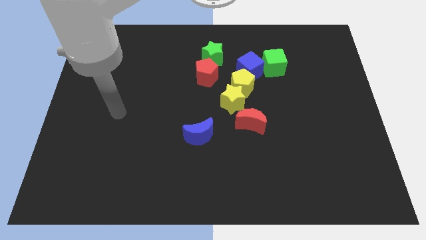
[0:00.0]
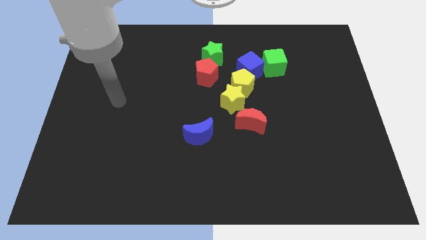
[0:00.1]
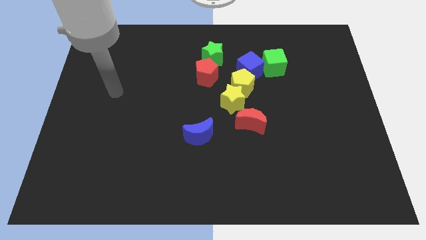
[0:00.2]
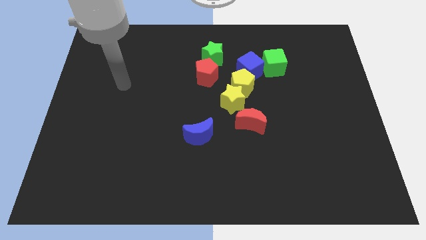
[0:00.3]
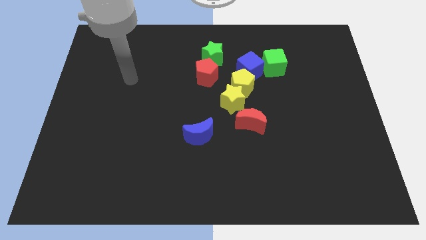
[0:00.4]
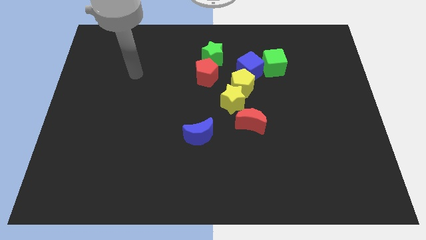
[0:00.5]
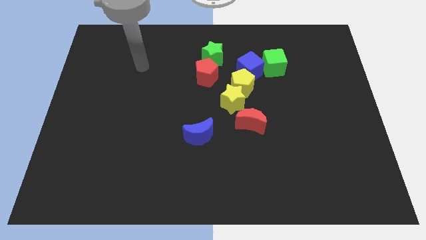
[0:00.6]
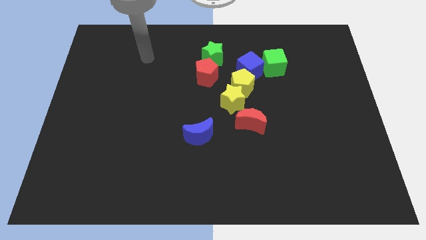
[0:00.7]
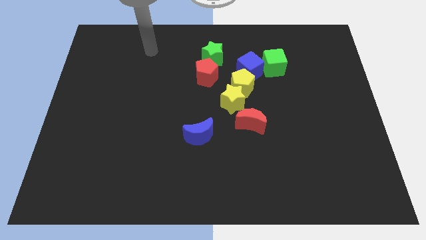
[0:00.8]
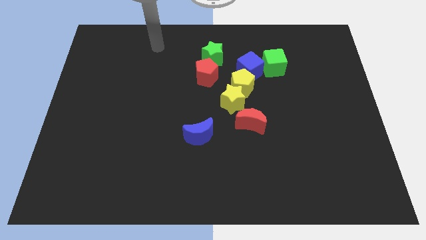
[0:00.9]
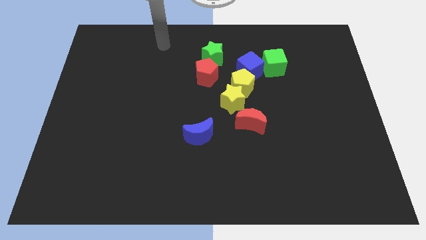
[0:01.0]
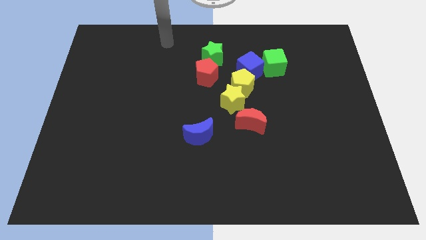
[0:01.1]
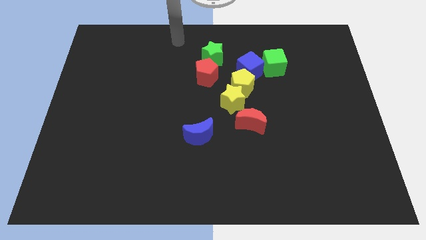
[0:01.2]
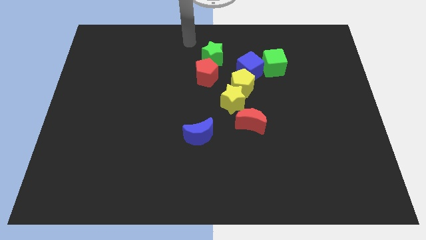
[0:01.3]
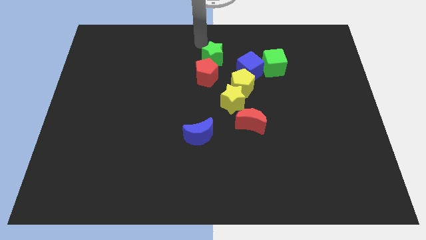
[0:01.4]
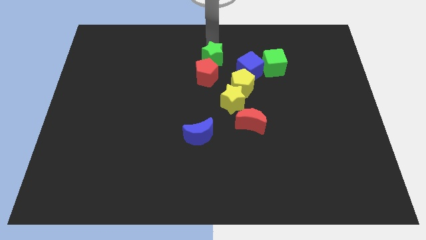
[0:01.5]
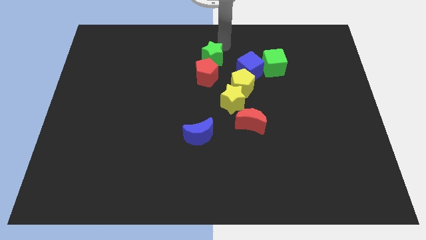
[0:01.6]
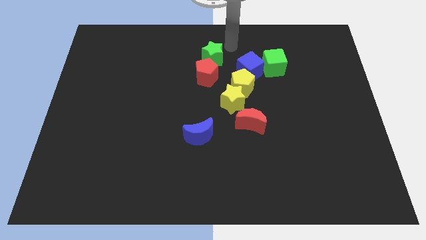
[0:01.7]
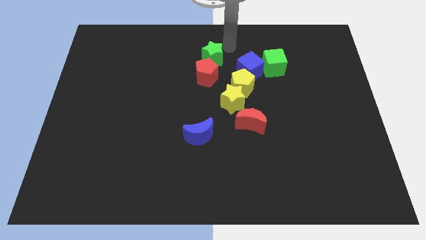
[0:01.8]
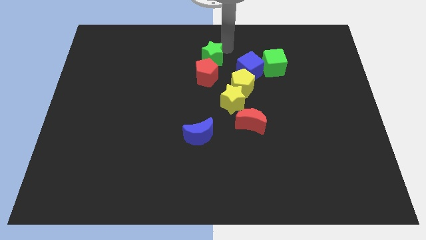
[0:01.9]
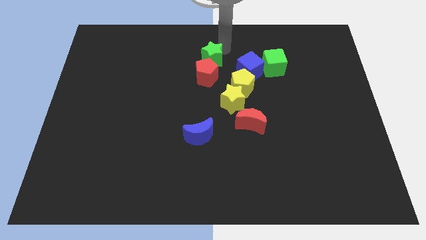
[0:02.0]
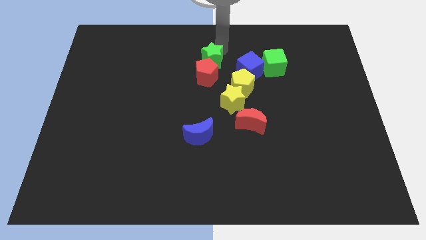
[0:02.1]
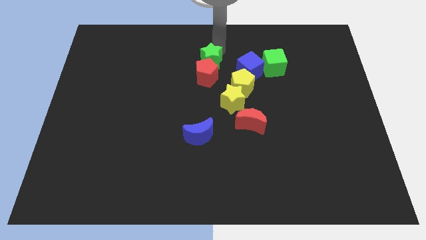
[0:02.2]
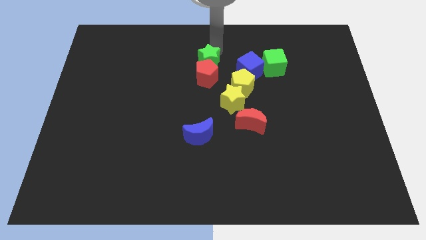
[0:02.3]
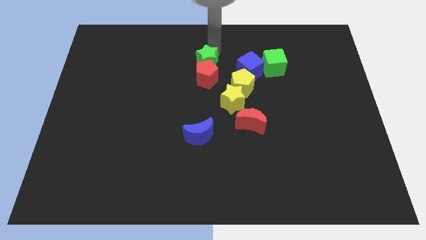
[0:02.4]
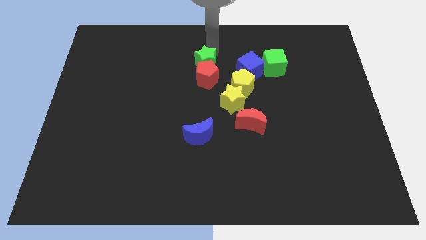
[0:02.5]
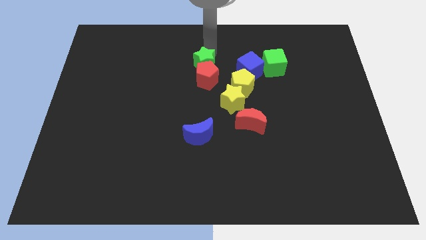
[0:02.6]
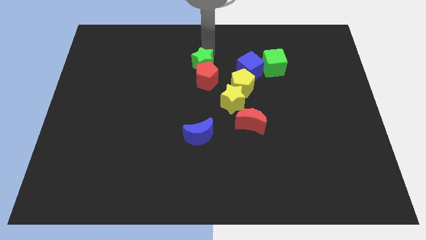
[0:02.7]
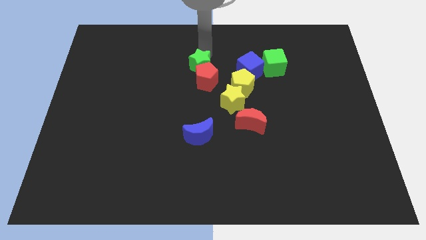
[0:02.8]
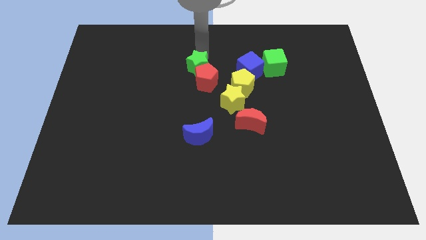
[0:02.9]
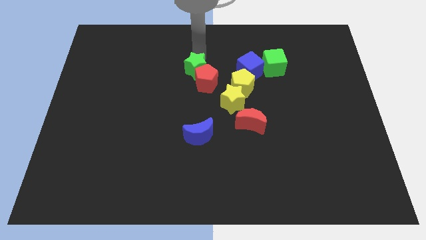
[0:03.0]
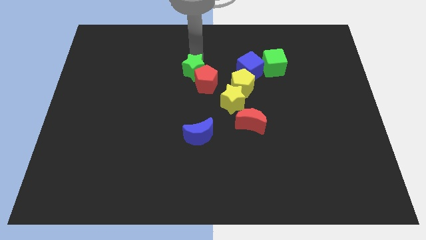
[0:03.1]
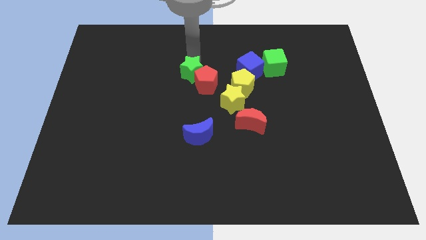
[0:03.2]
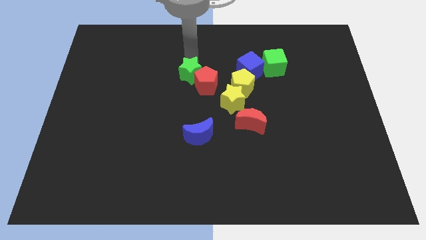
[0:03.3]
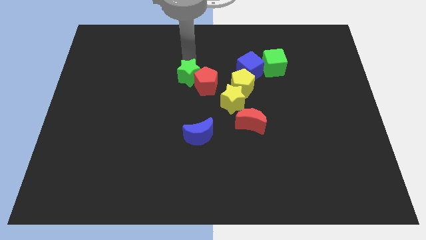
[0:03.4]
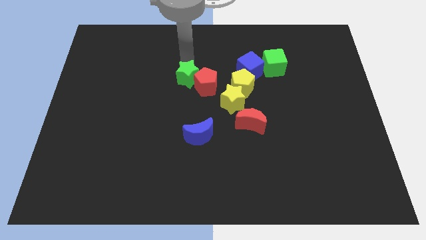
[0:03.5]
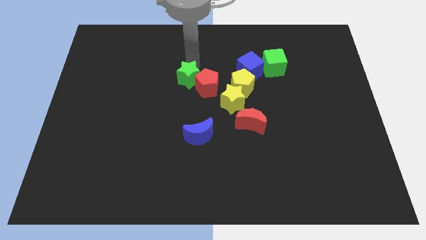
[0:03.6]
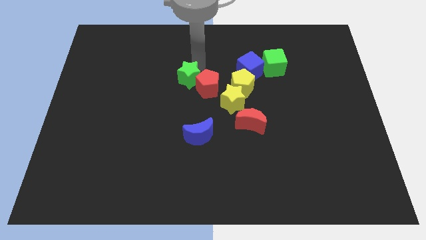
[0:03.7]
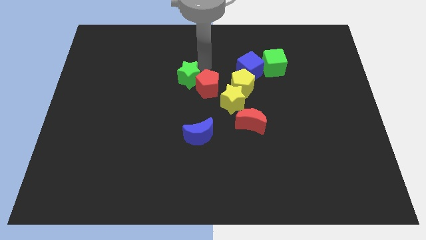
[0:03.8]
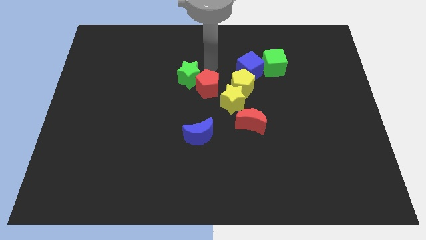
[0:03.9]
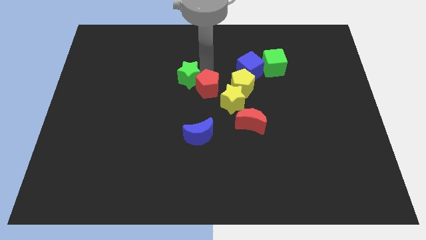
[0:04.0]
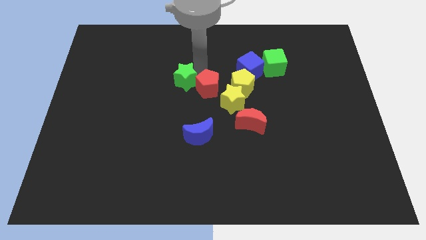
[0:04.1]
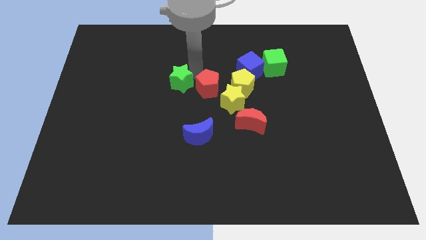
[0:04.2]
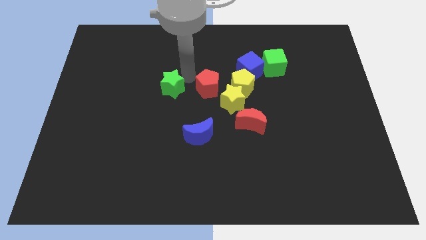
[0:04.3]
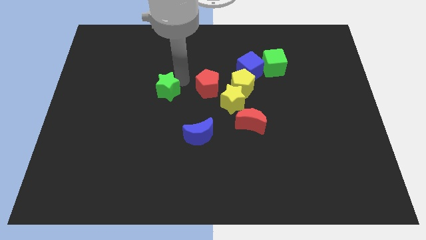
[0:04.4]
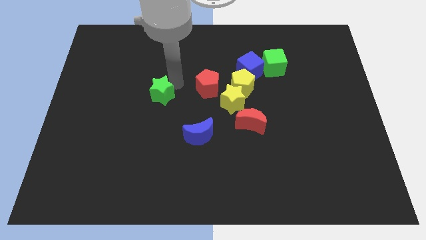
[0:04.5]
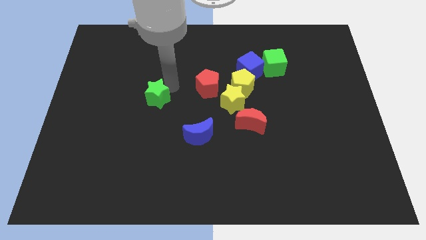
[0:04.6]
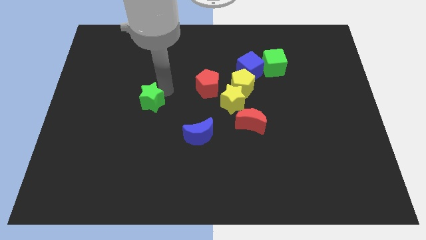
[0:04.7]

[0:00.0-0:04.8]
slide the green star down and left diagonally

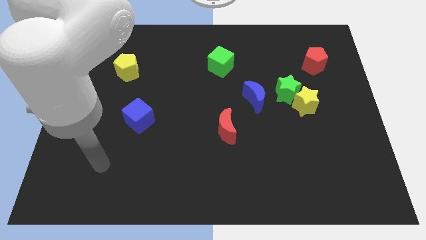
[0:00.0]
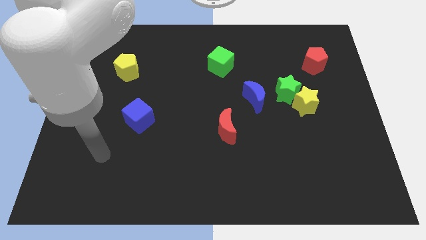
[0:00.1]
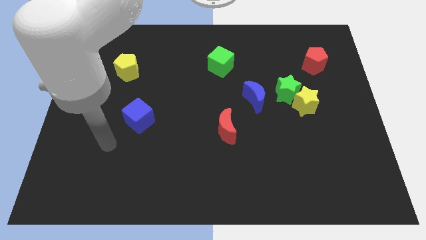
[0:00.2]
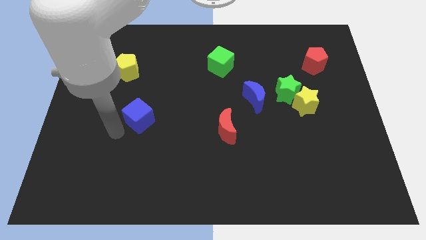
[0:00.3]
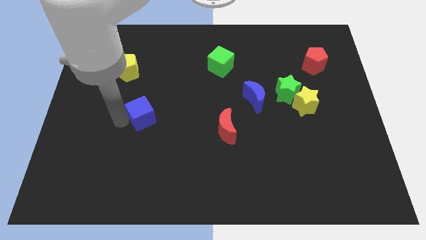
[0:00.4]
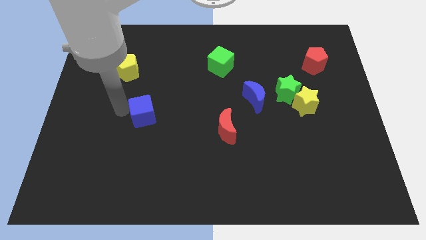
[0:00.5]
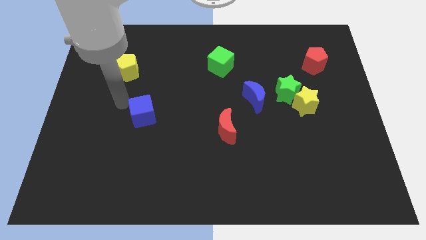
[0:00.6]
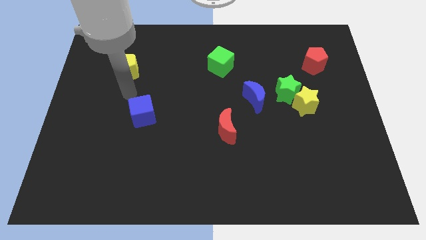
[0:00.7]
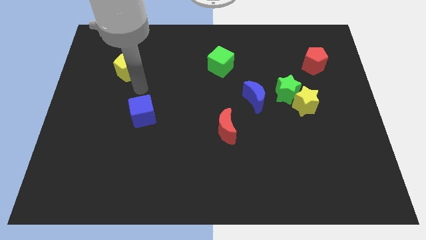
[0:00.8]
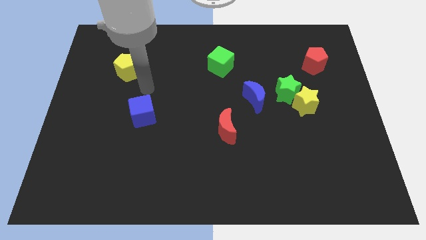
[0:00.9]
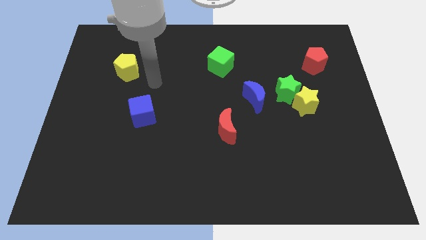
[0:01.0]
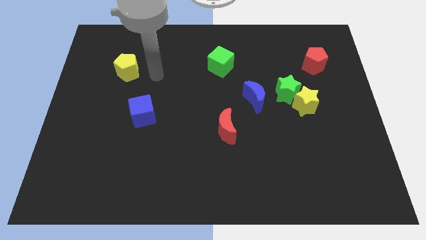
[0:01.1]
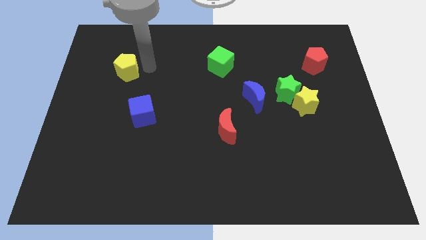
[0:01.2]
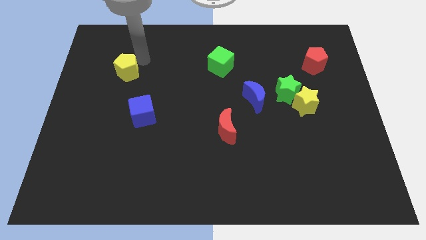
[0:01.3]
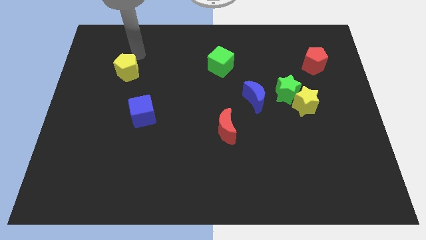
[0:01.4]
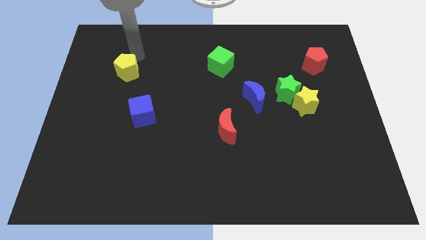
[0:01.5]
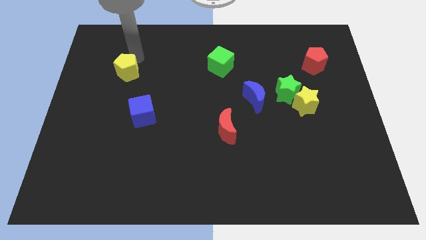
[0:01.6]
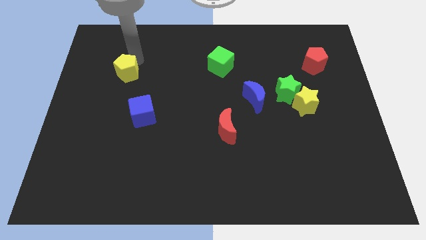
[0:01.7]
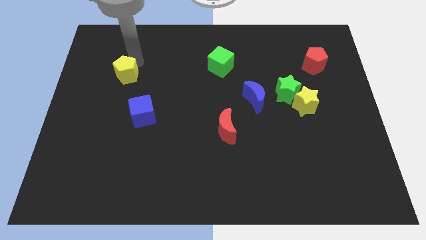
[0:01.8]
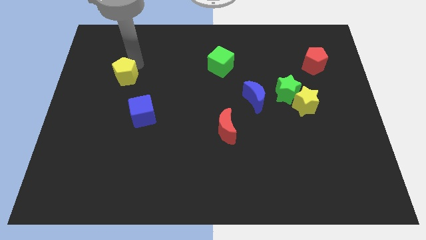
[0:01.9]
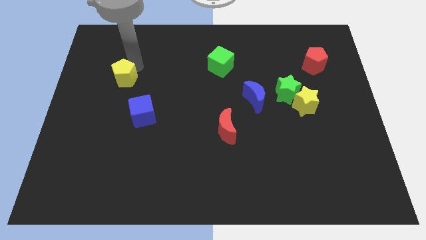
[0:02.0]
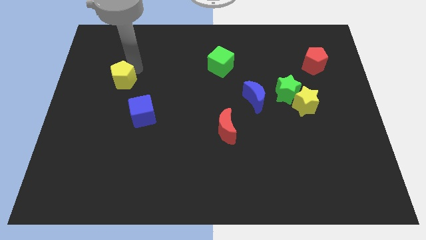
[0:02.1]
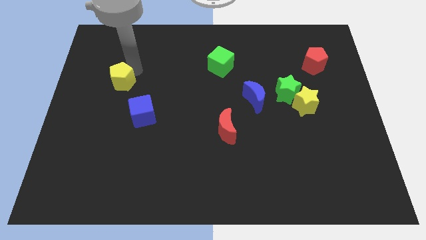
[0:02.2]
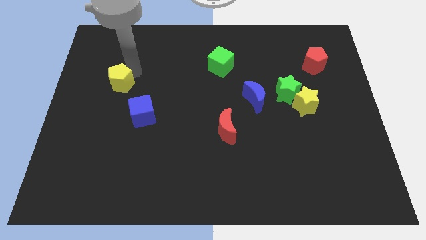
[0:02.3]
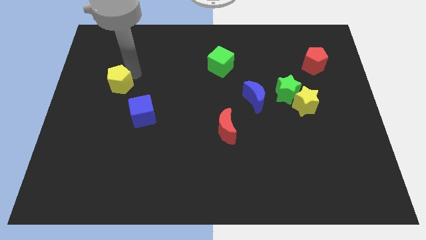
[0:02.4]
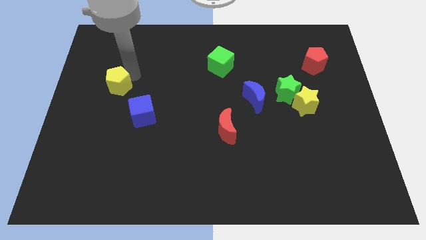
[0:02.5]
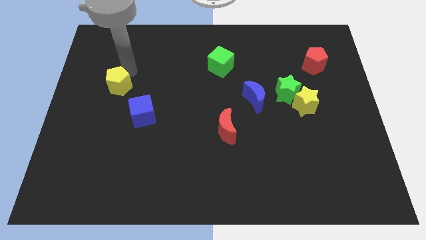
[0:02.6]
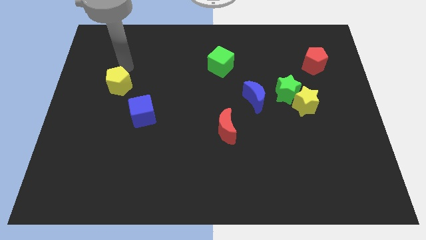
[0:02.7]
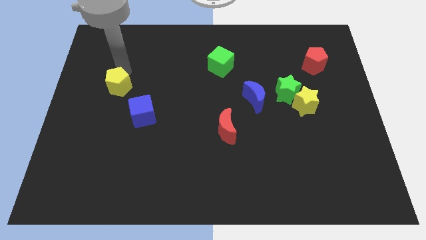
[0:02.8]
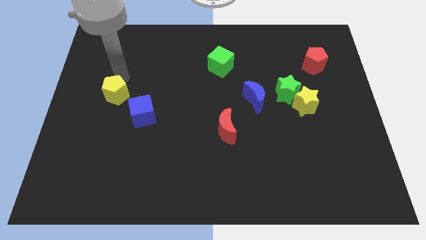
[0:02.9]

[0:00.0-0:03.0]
move the yellow pentagon a little bit downwards

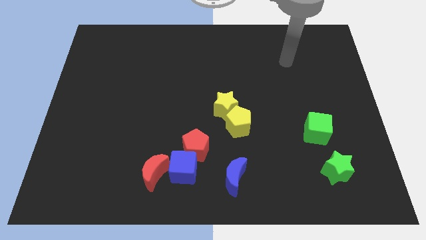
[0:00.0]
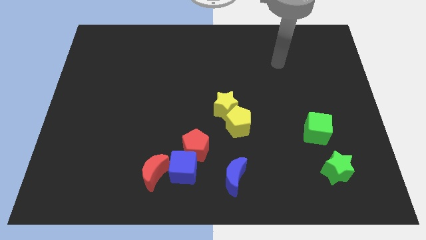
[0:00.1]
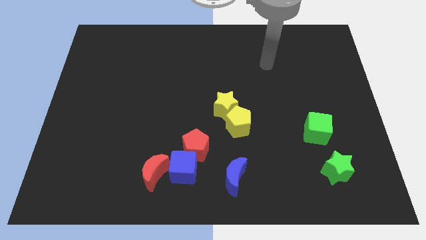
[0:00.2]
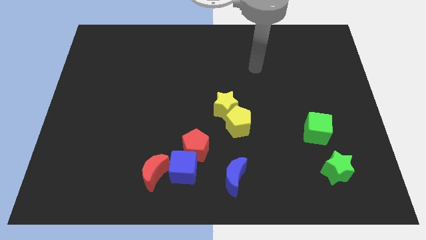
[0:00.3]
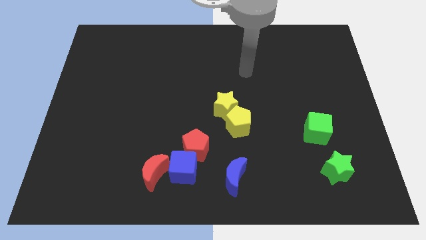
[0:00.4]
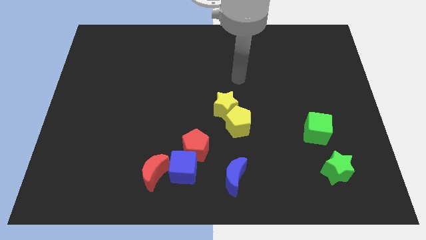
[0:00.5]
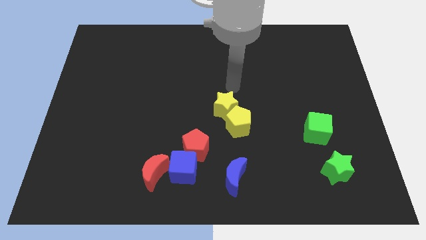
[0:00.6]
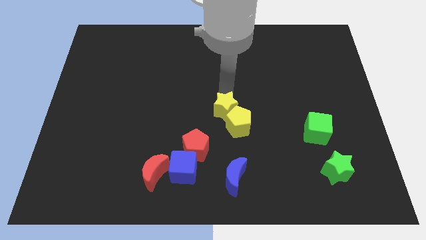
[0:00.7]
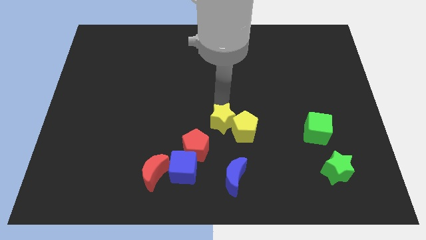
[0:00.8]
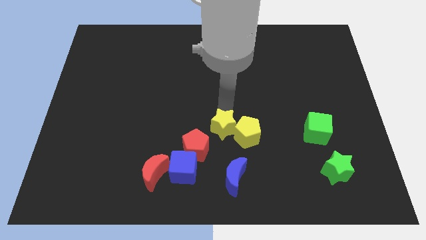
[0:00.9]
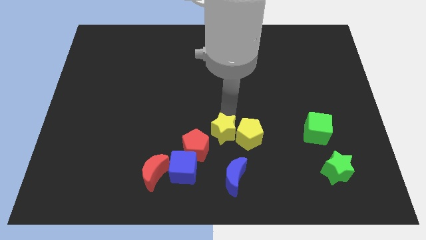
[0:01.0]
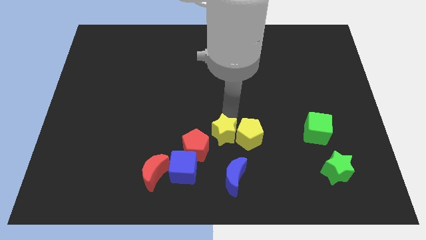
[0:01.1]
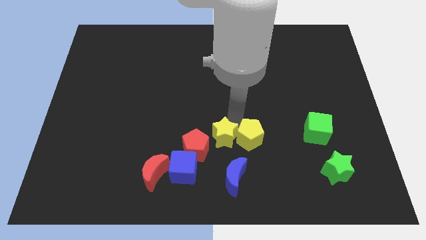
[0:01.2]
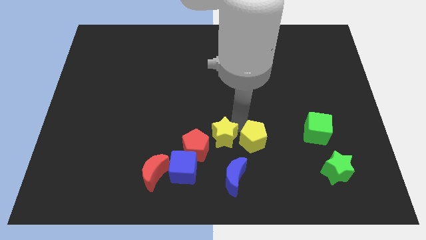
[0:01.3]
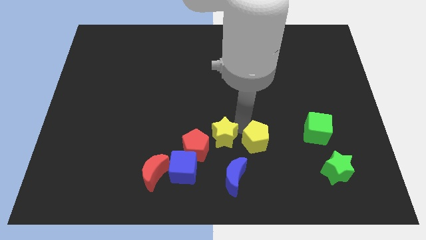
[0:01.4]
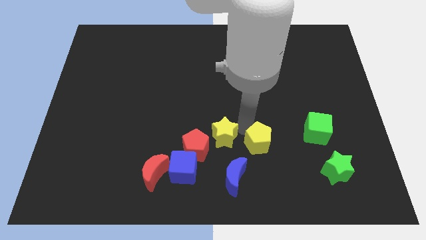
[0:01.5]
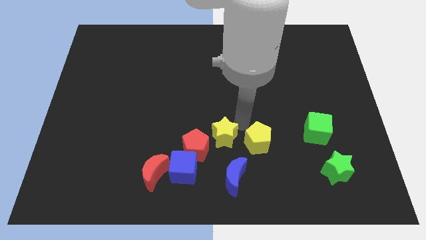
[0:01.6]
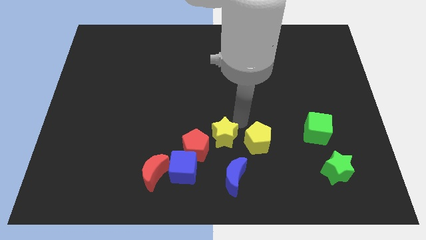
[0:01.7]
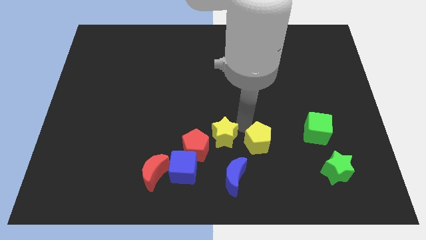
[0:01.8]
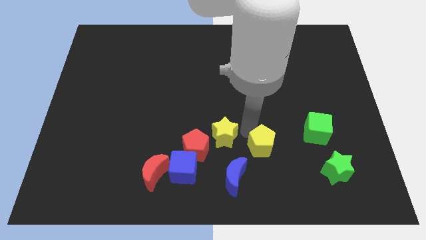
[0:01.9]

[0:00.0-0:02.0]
move the yellow pentagon downwards and to the right a bit
